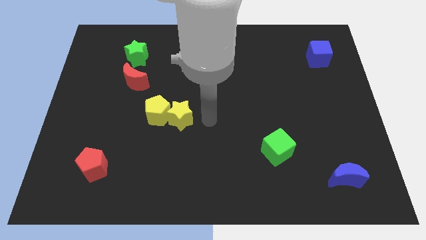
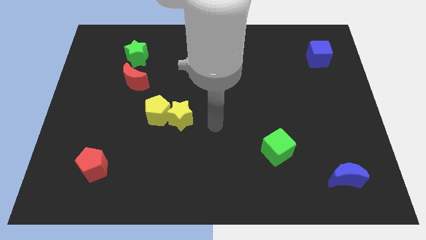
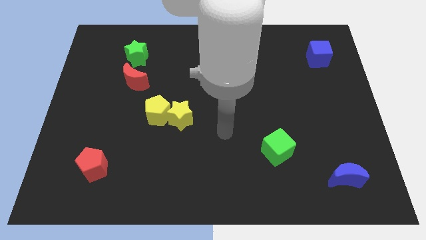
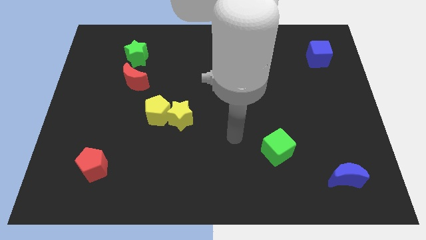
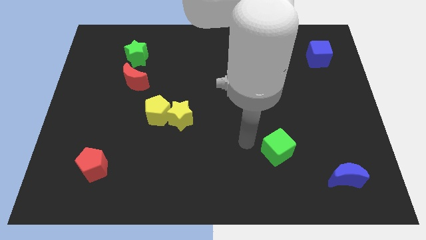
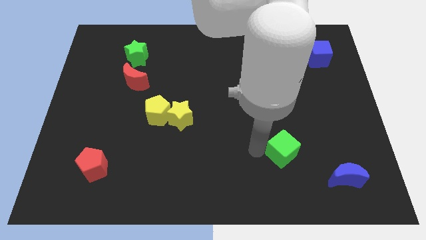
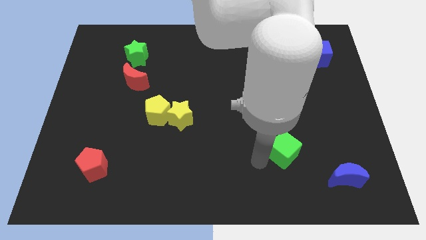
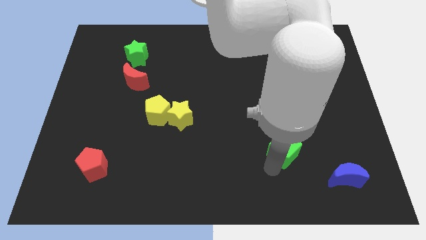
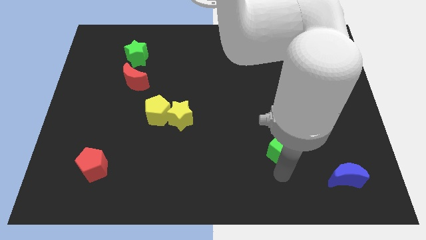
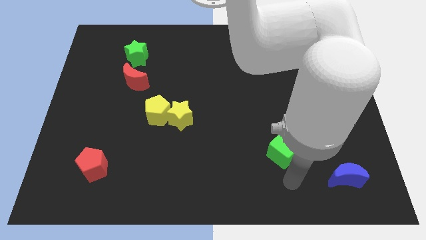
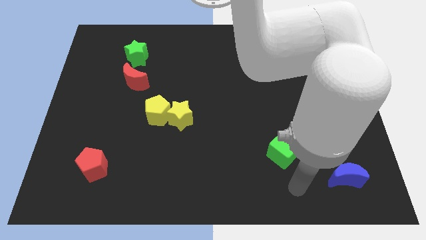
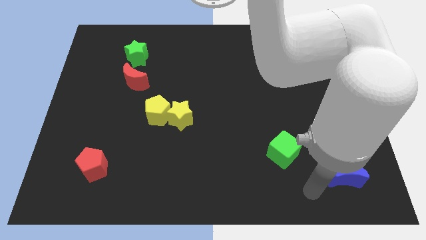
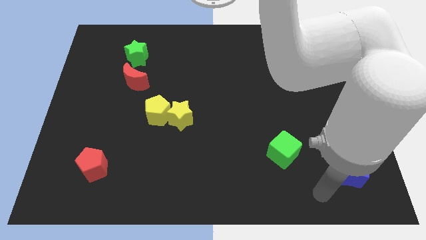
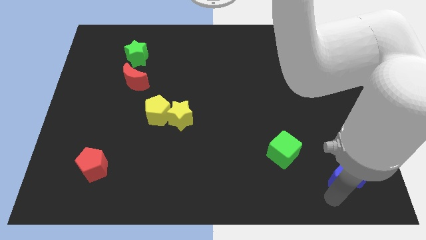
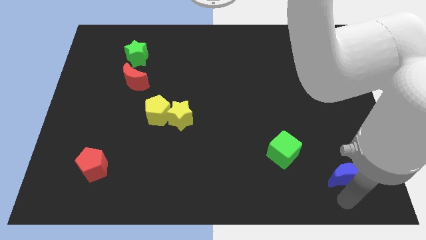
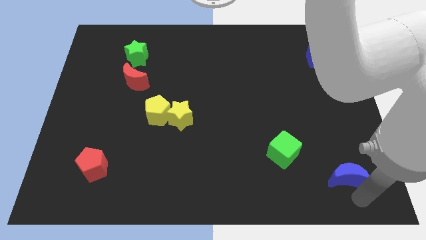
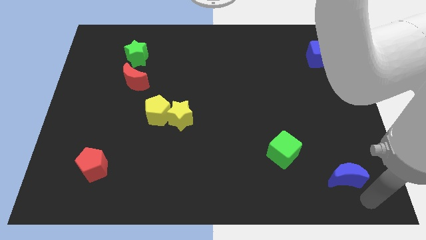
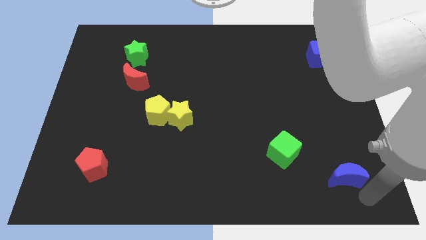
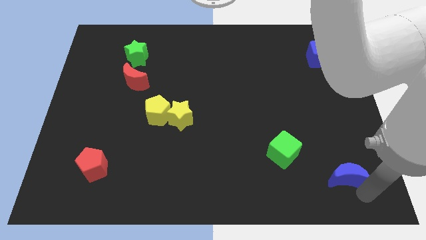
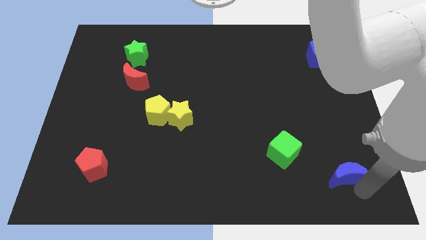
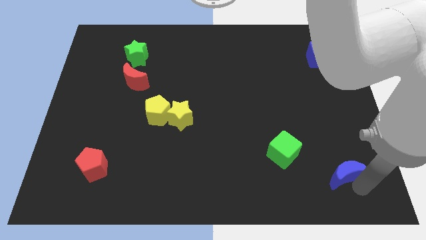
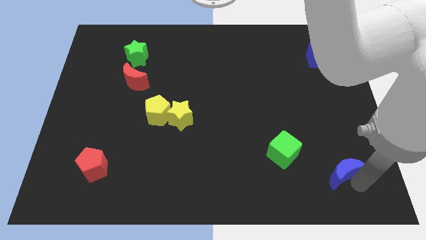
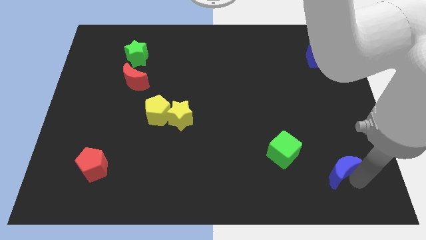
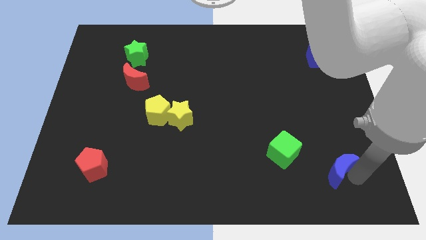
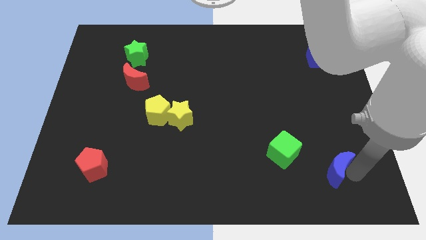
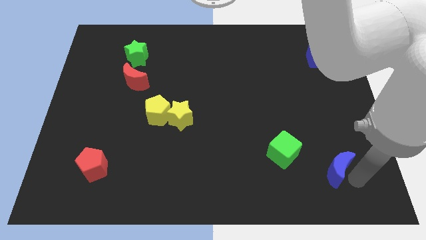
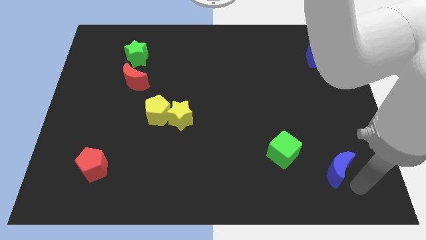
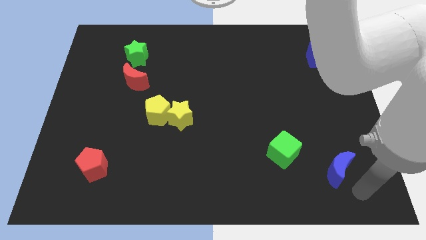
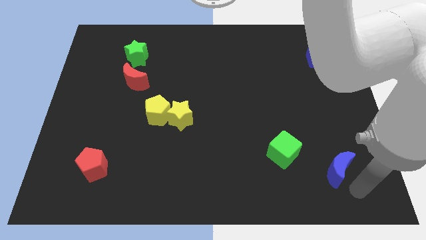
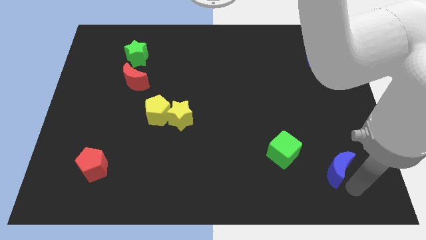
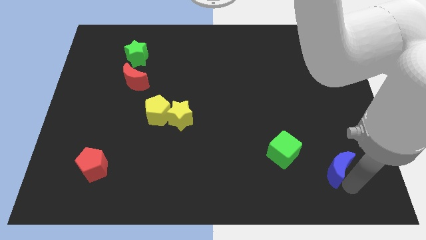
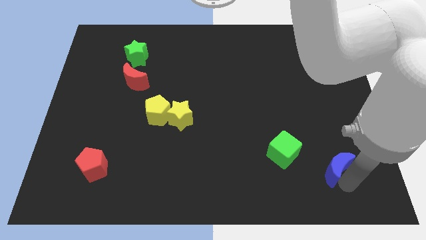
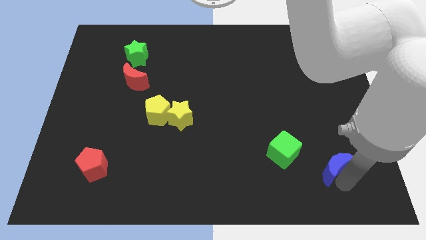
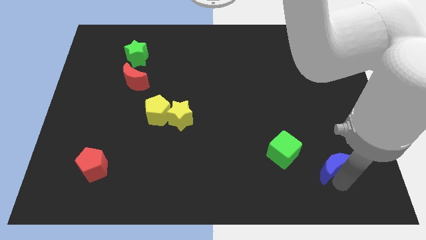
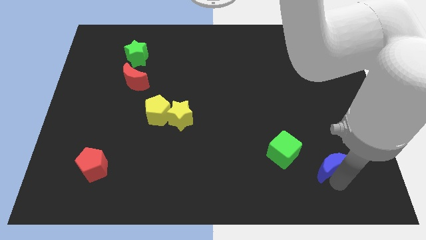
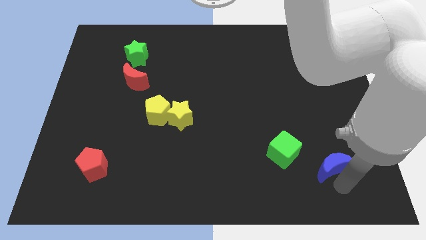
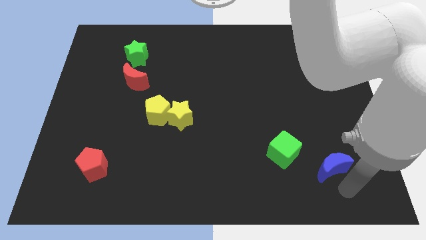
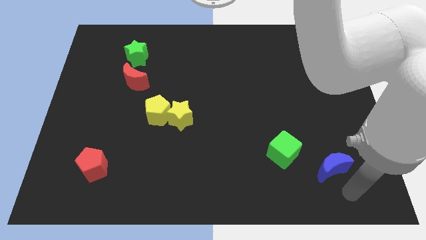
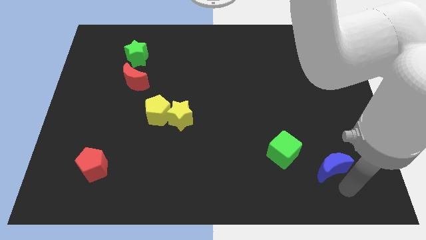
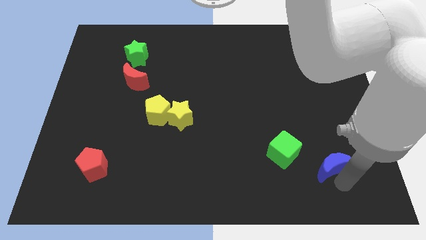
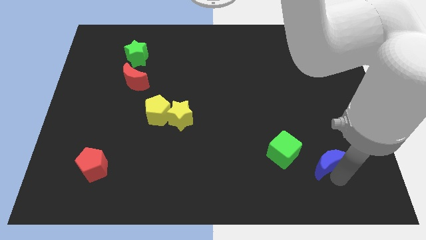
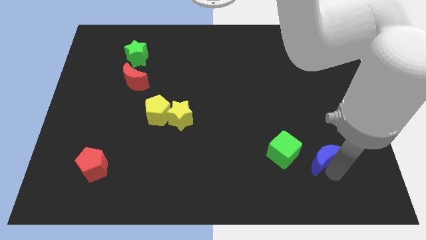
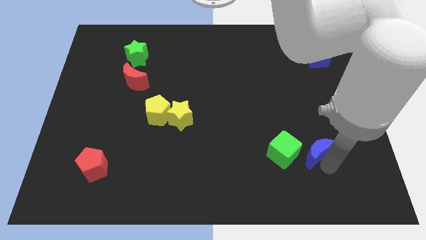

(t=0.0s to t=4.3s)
slightly slide the blue moon upwards and to the left diagonally

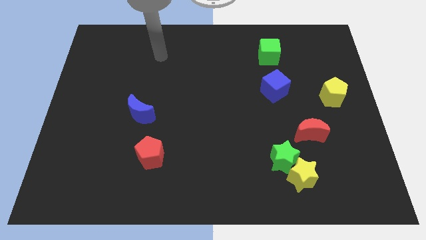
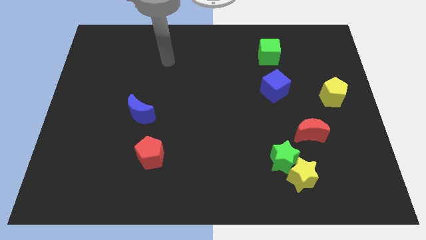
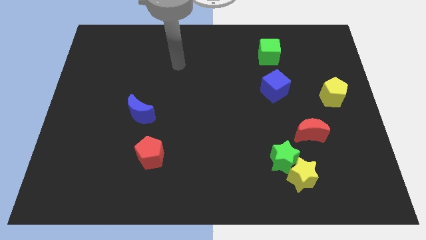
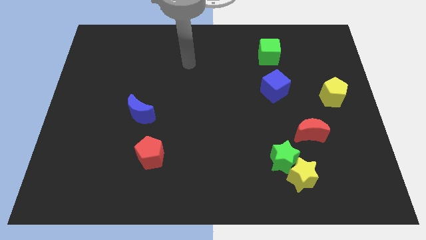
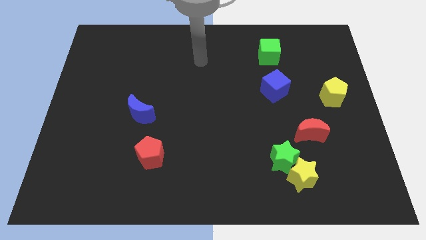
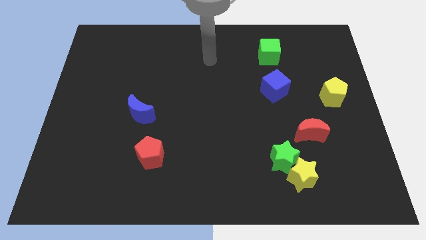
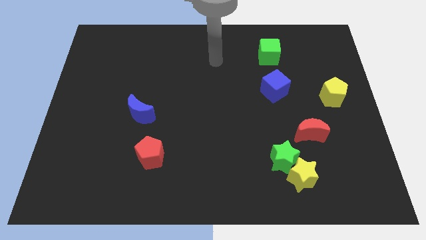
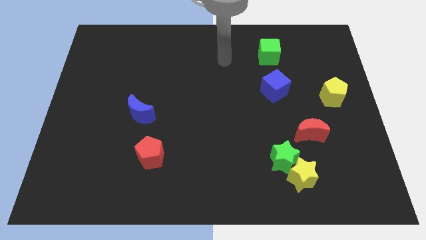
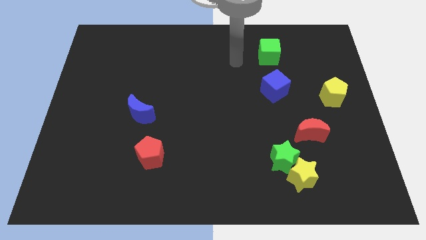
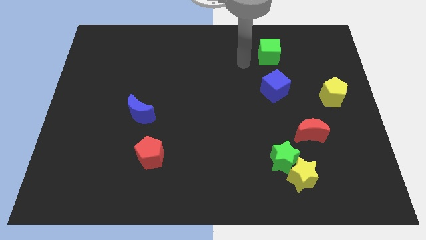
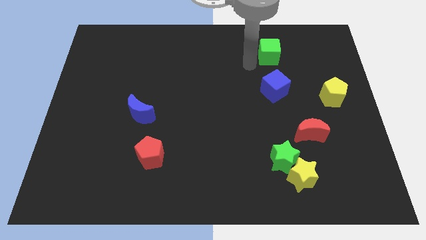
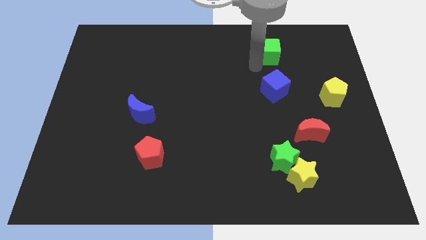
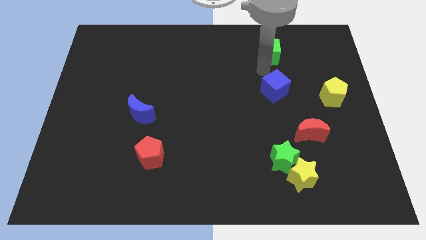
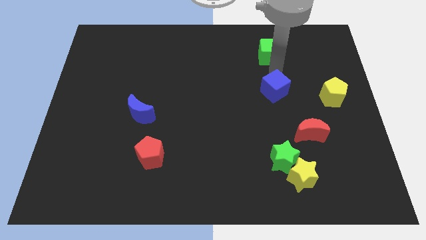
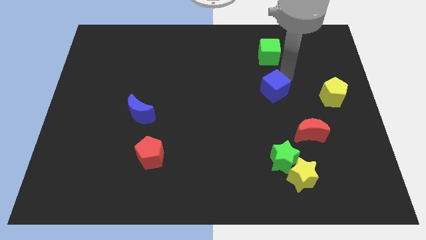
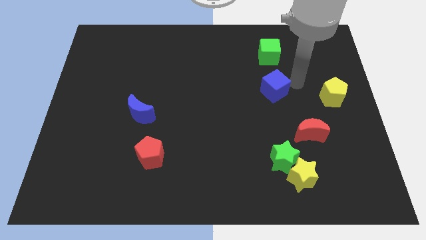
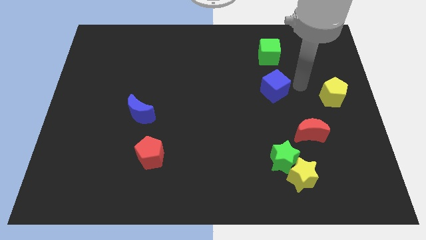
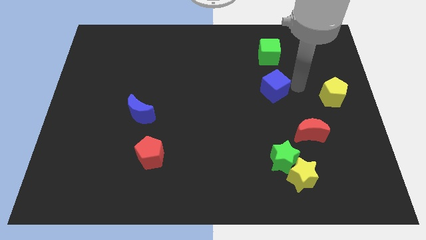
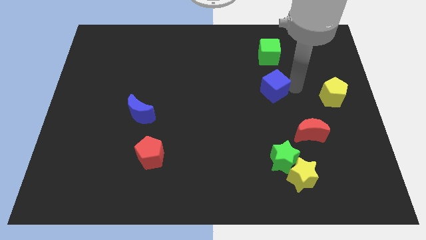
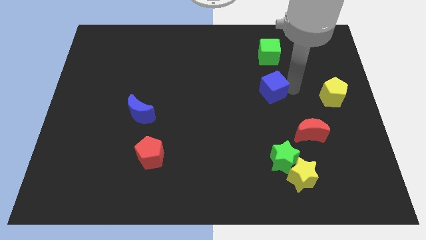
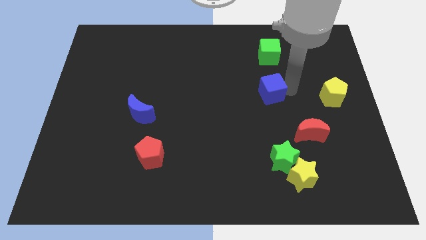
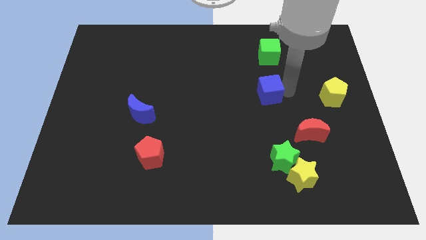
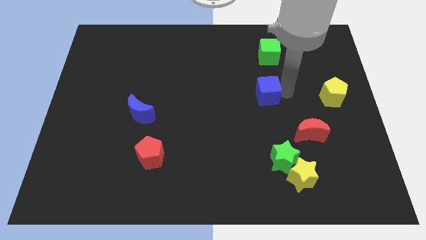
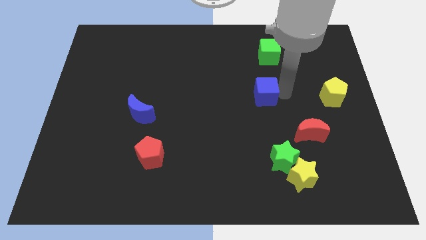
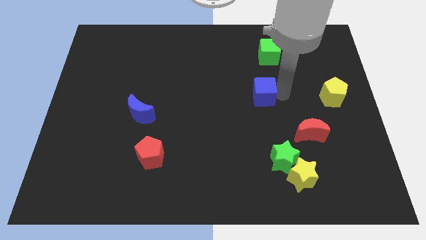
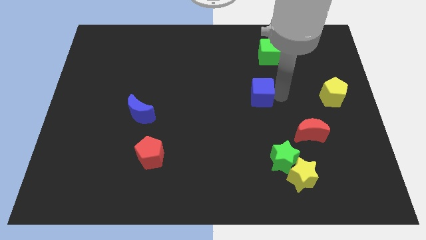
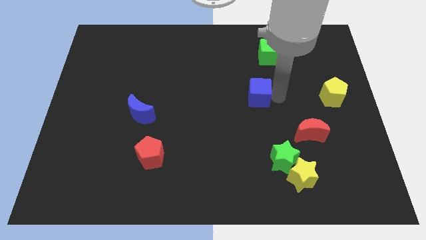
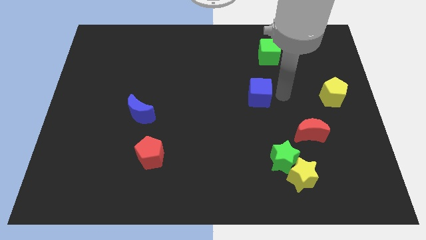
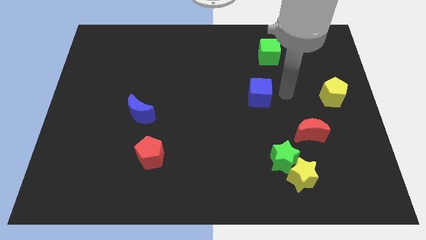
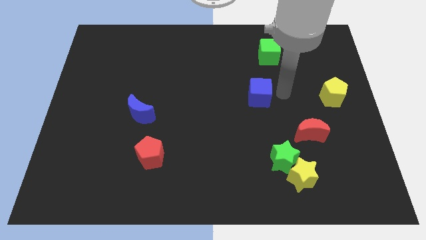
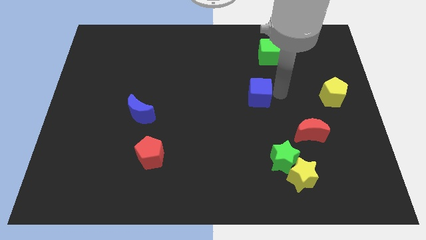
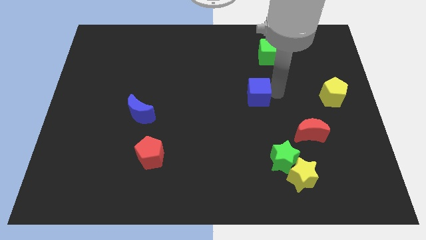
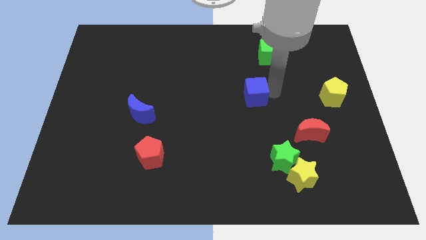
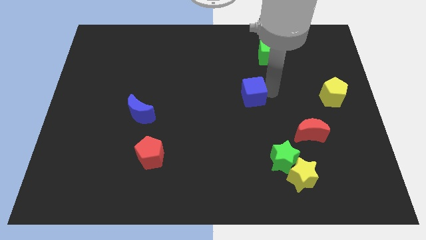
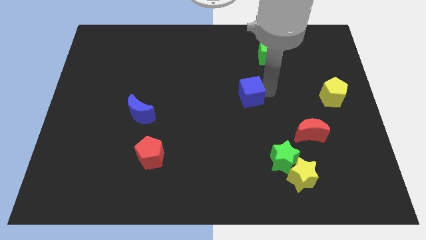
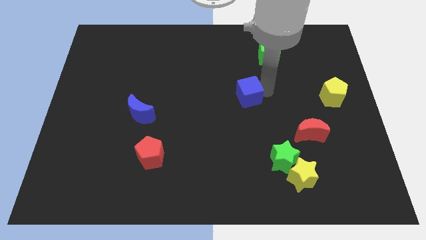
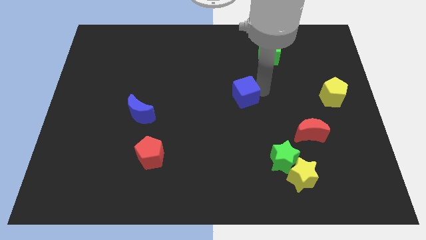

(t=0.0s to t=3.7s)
slide the blue cube a little bit to the left
